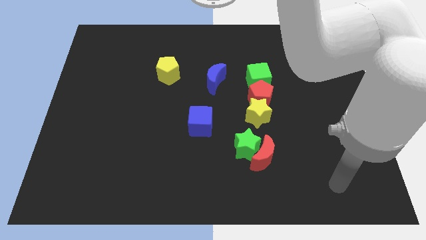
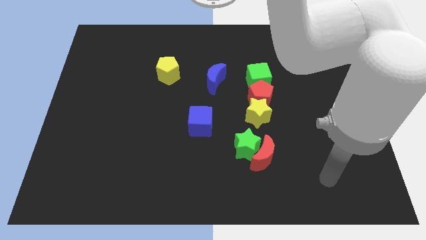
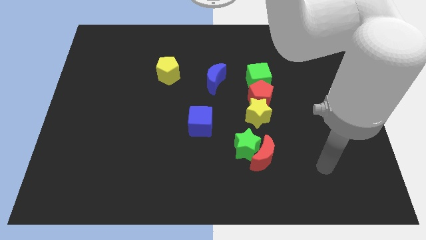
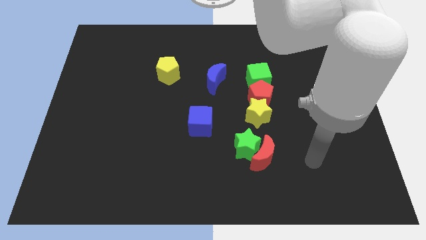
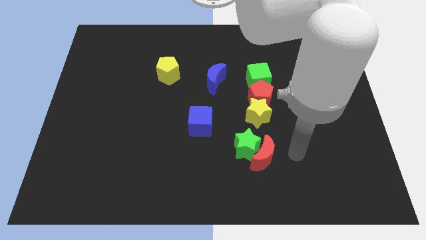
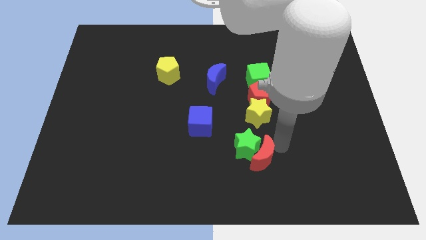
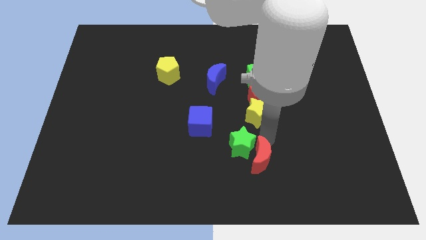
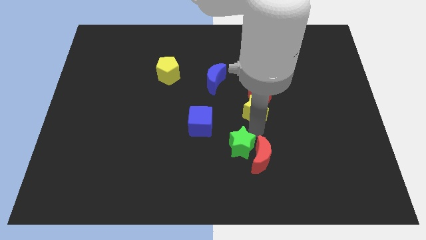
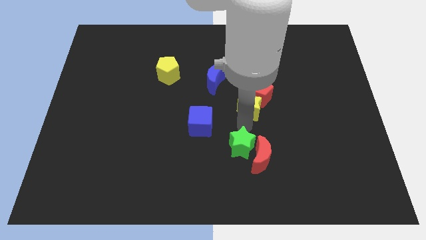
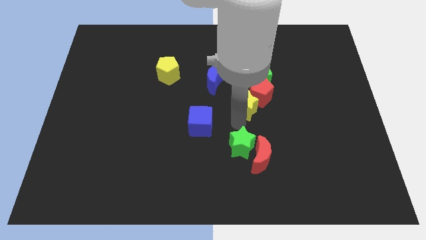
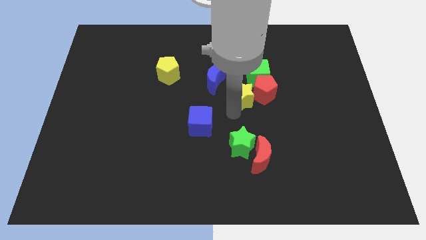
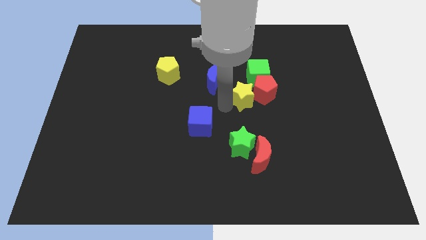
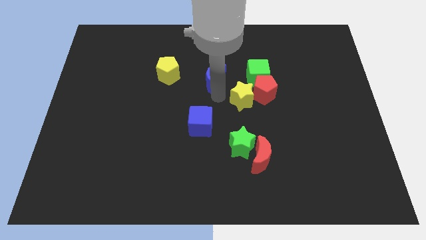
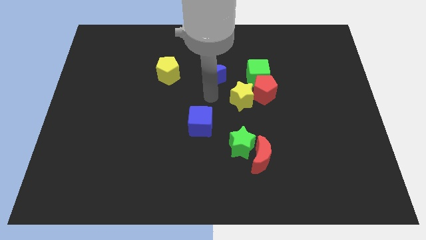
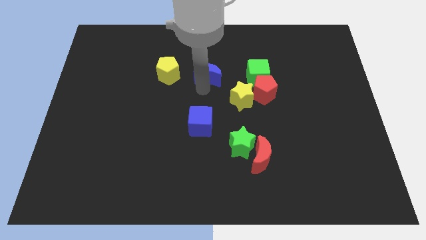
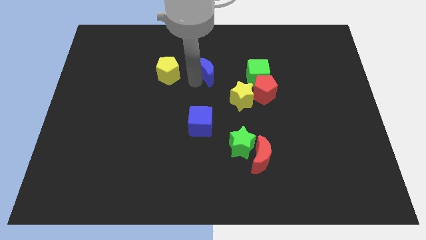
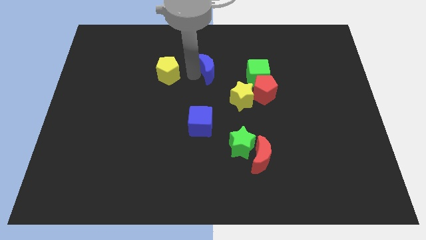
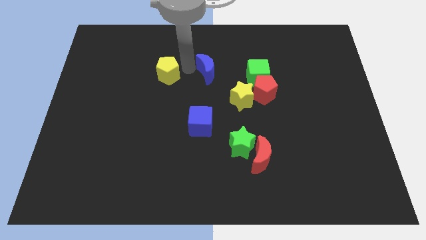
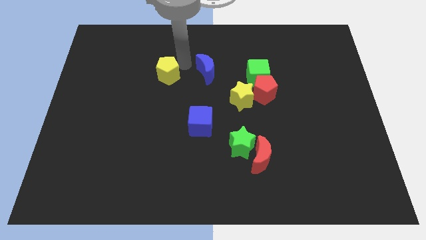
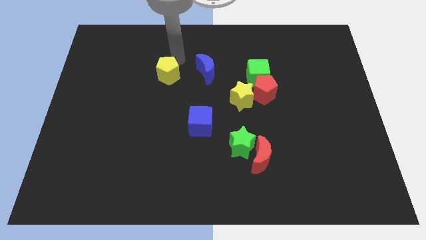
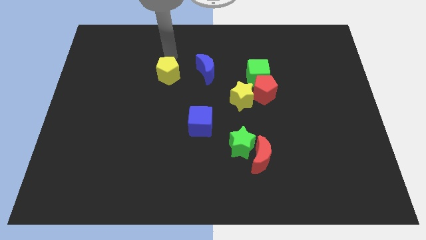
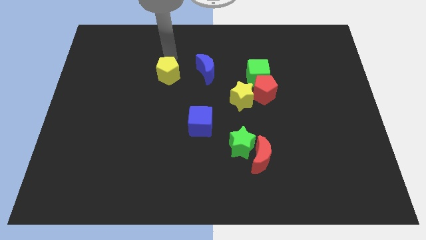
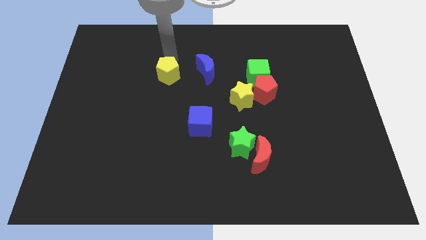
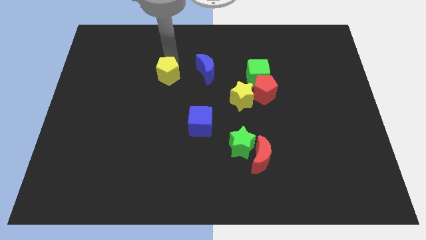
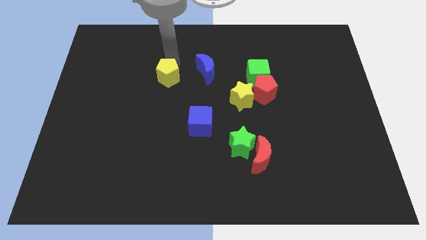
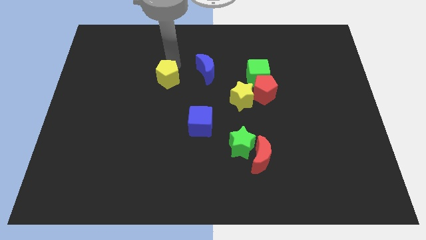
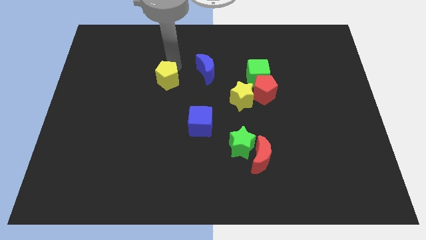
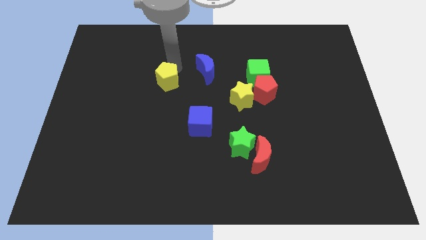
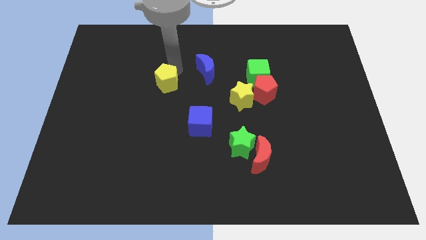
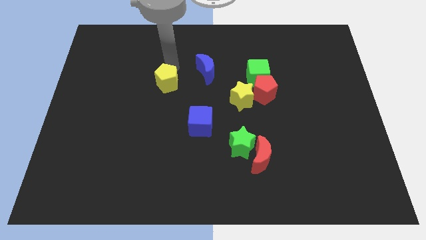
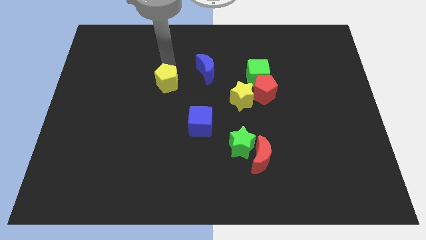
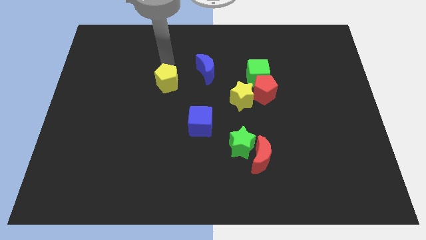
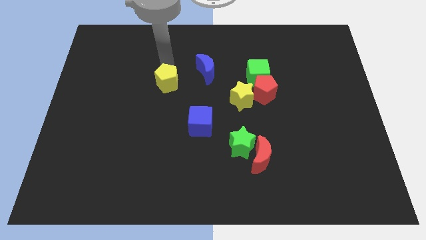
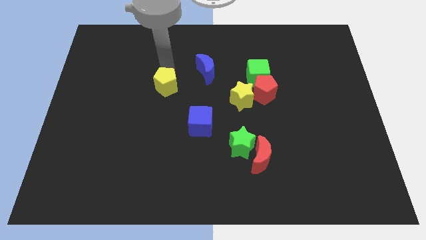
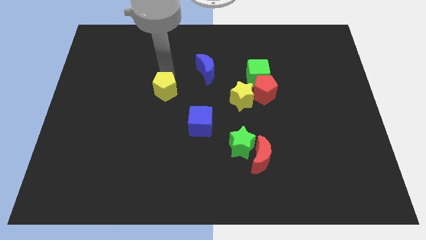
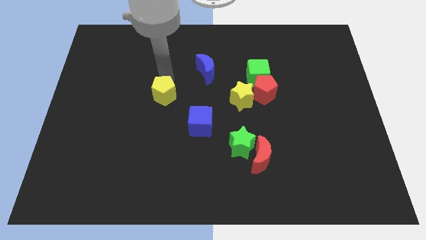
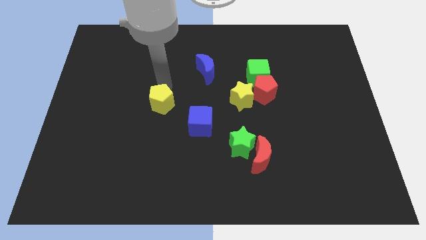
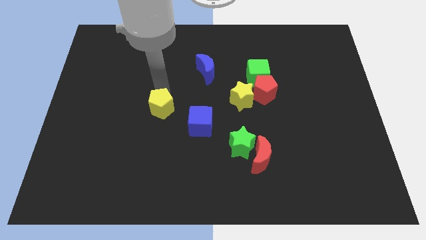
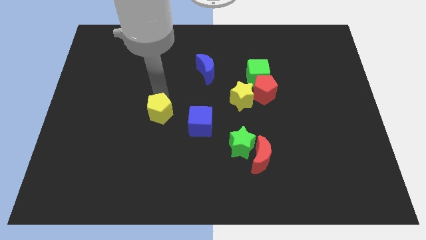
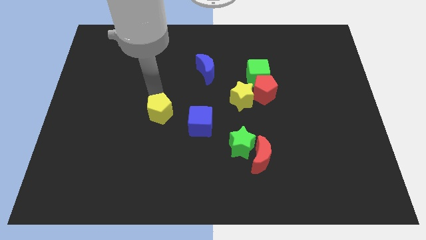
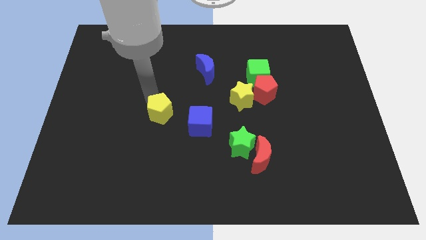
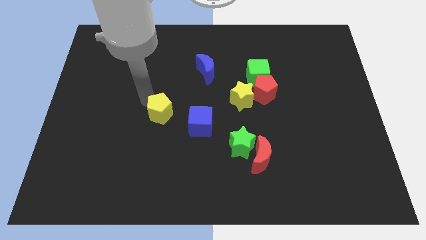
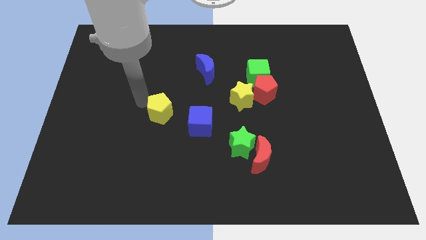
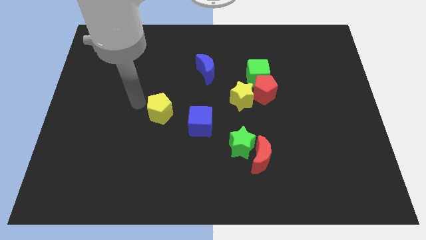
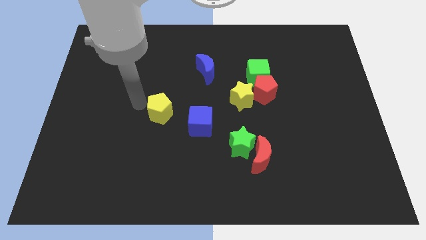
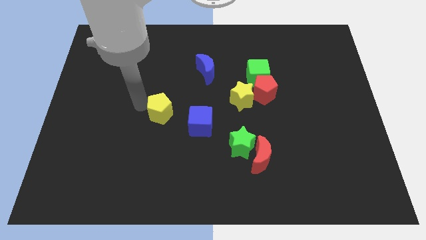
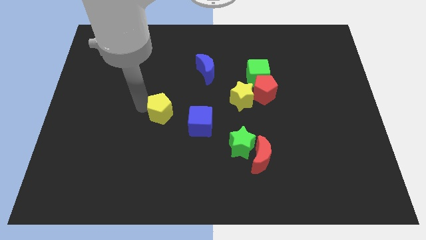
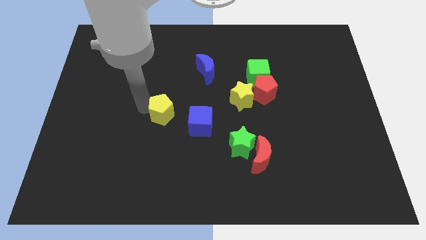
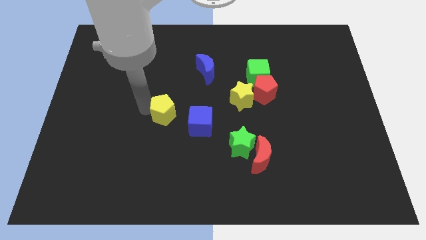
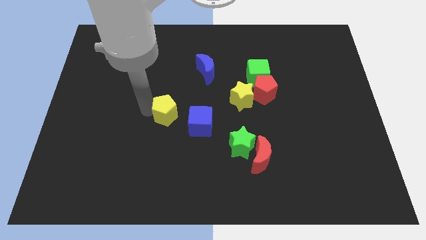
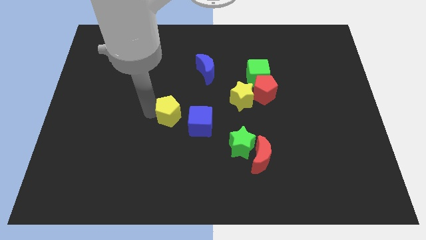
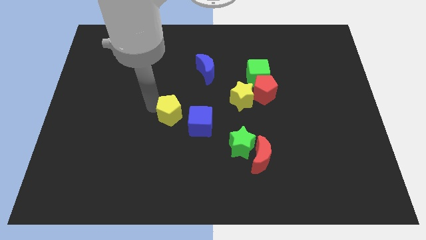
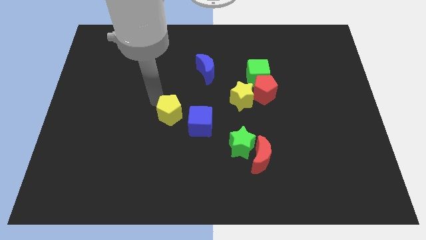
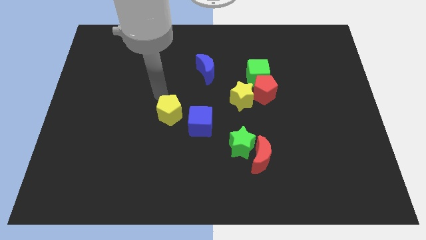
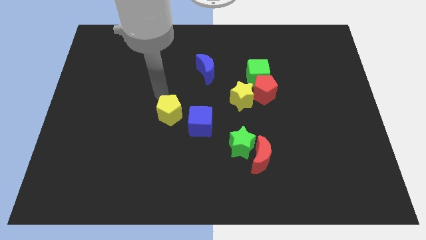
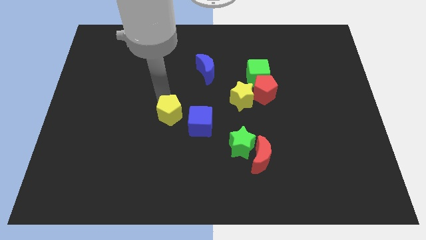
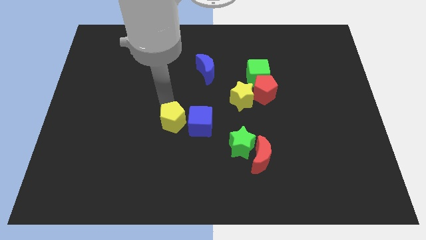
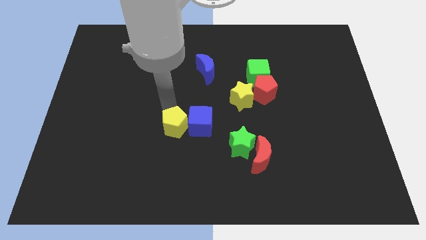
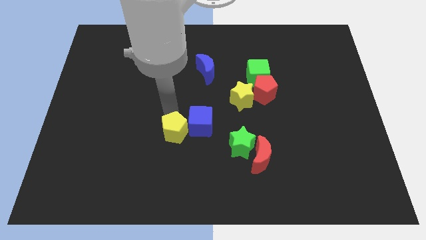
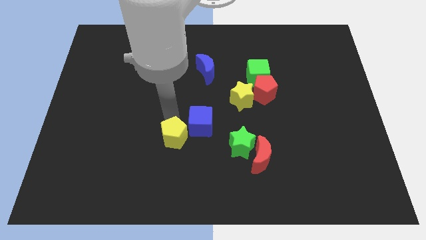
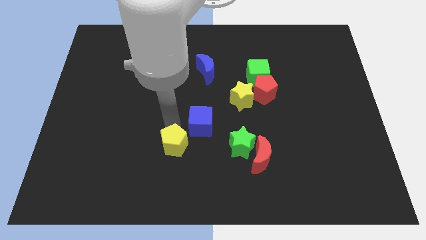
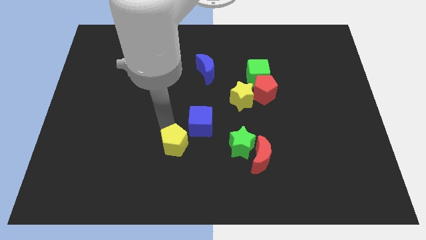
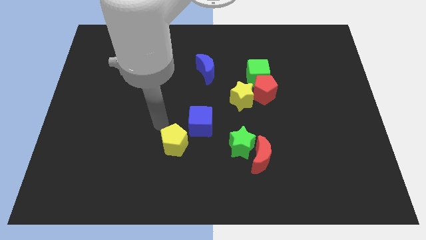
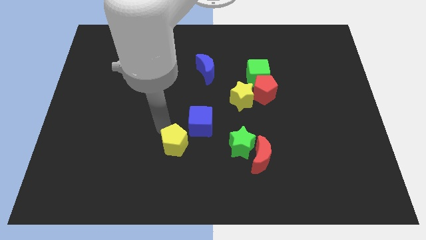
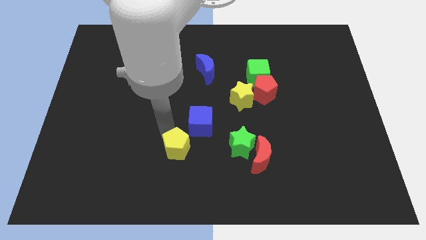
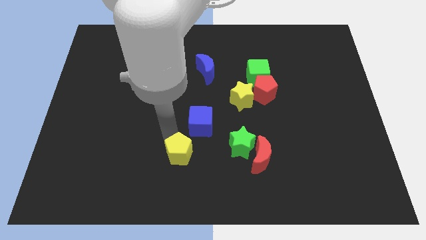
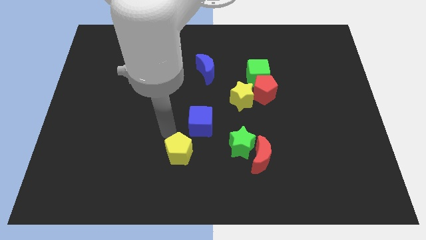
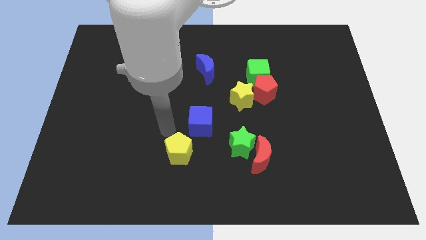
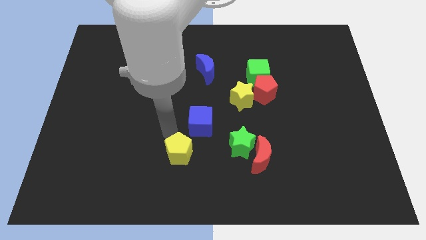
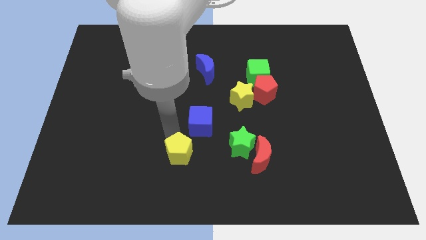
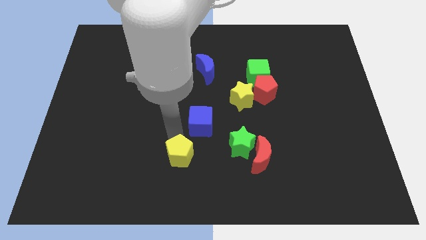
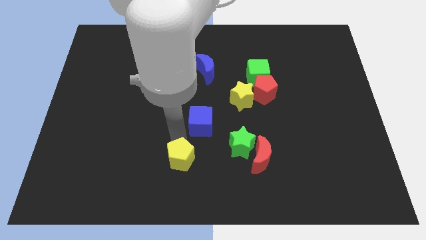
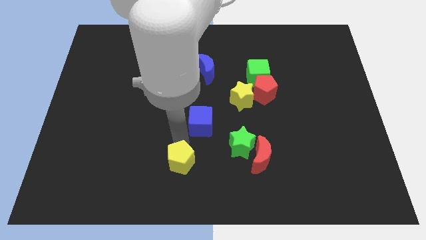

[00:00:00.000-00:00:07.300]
slide the yellow pentagon to the bottom side
